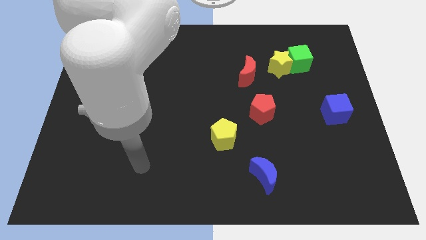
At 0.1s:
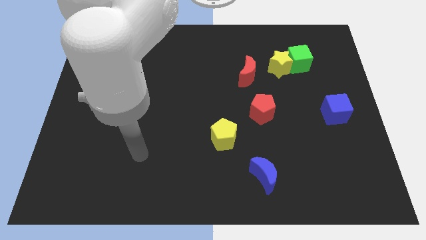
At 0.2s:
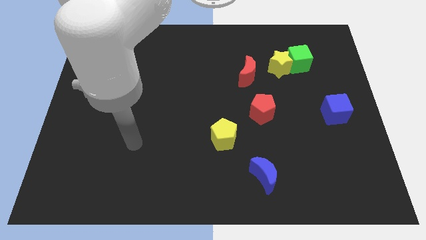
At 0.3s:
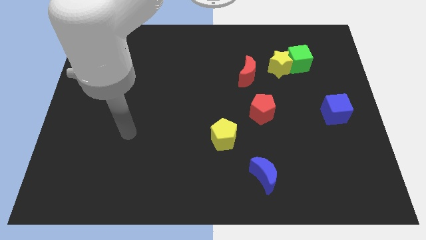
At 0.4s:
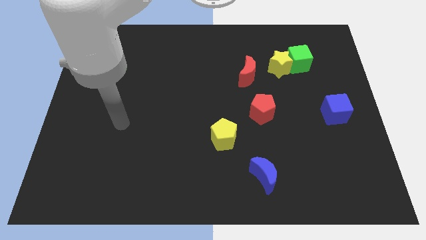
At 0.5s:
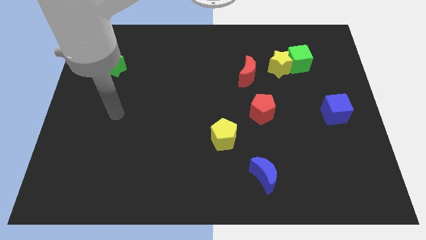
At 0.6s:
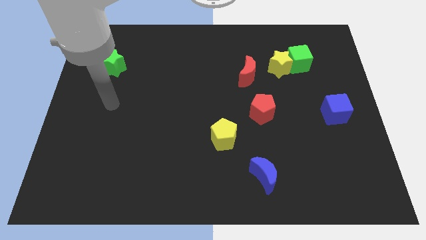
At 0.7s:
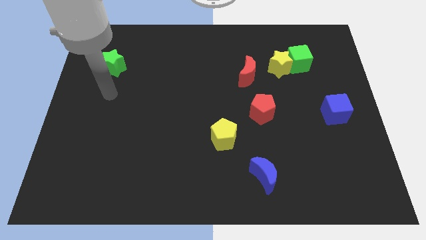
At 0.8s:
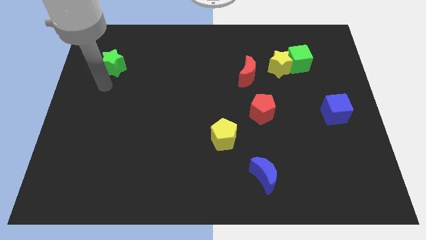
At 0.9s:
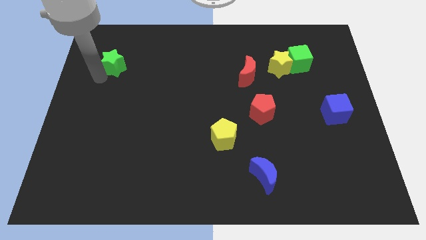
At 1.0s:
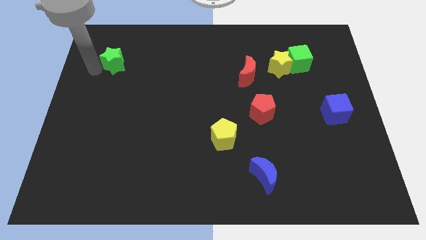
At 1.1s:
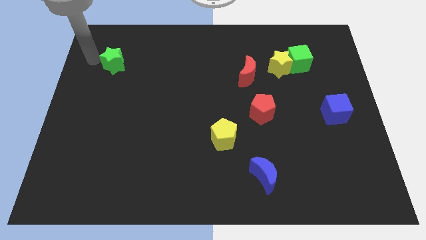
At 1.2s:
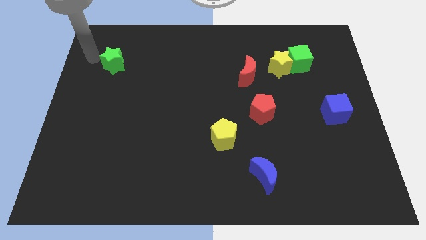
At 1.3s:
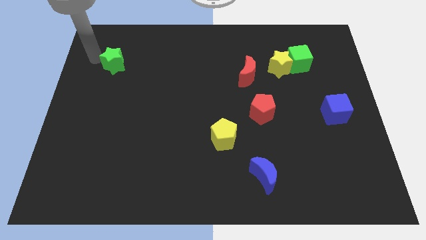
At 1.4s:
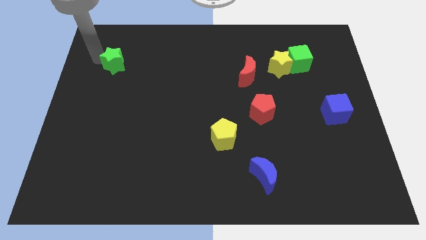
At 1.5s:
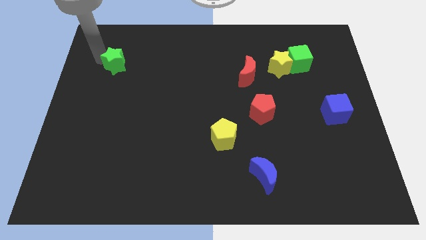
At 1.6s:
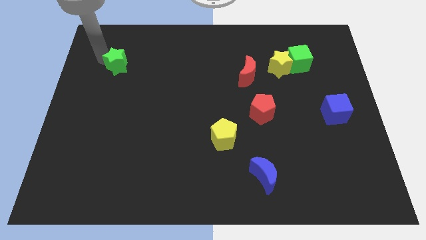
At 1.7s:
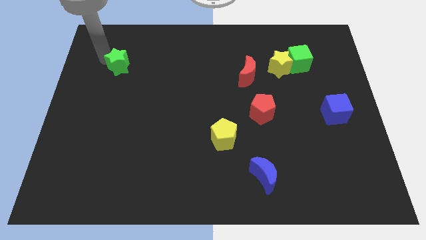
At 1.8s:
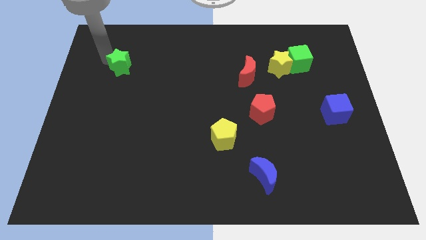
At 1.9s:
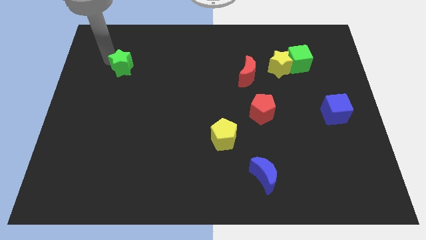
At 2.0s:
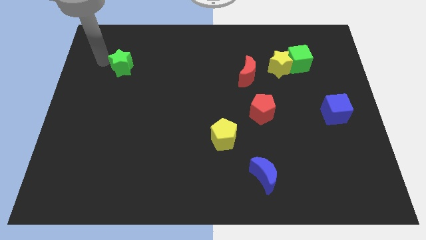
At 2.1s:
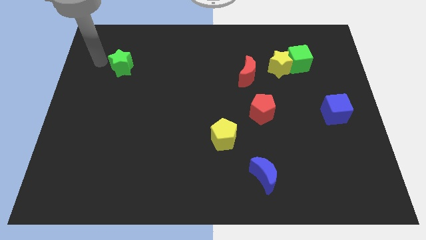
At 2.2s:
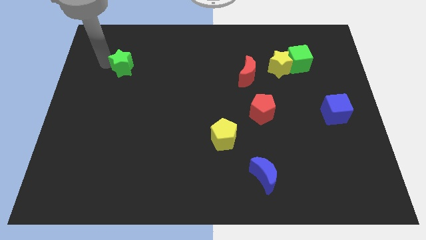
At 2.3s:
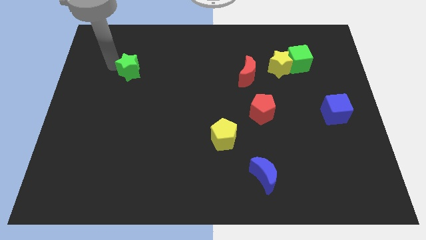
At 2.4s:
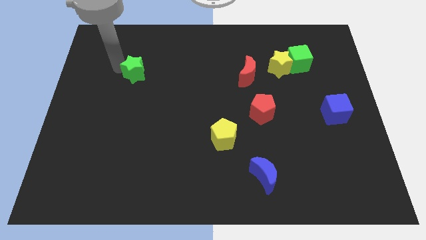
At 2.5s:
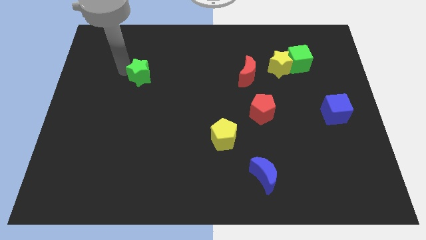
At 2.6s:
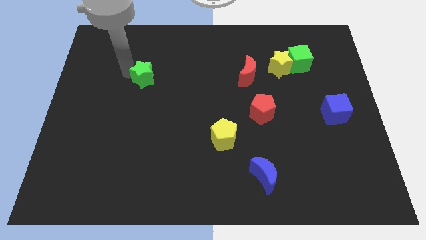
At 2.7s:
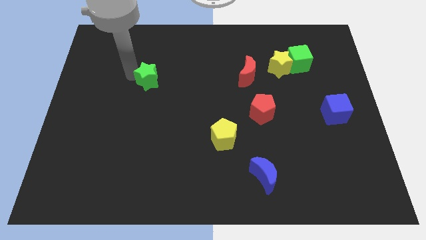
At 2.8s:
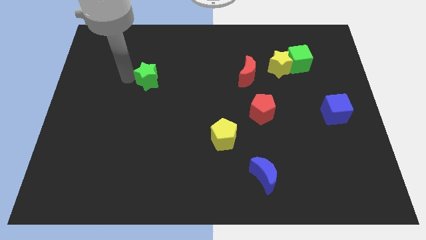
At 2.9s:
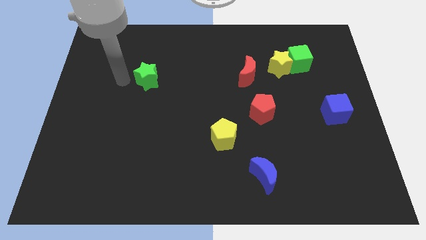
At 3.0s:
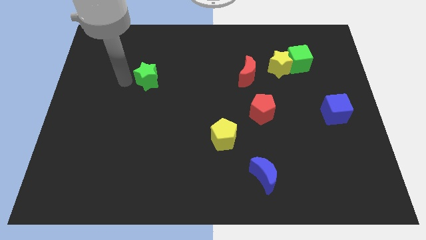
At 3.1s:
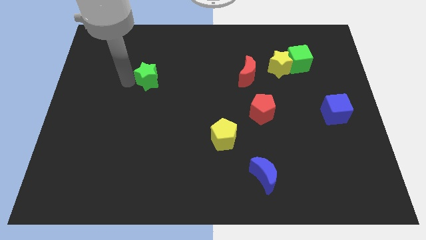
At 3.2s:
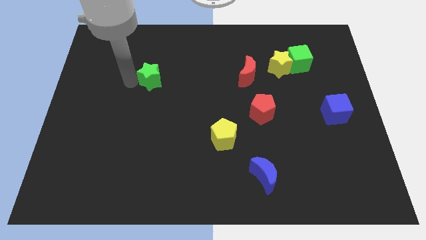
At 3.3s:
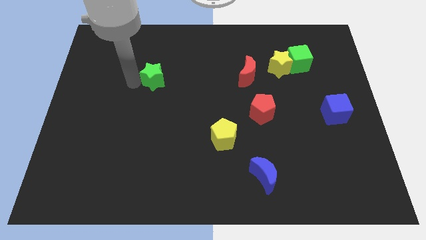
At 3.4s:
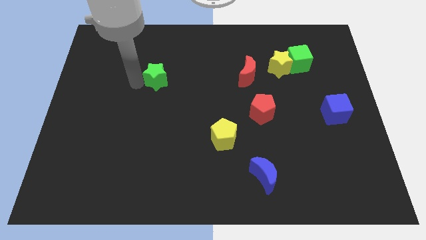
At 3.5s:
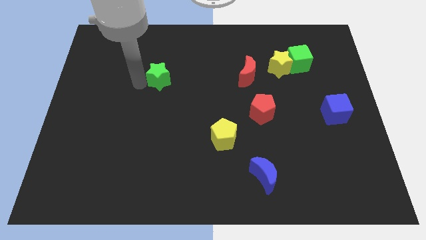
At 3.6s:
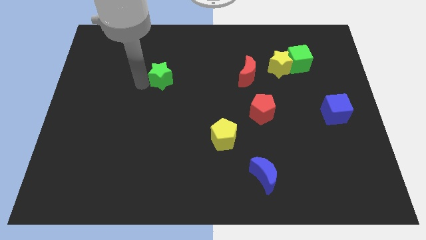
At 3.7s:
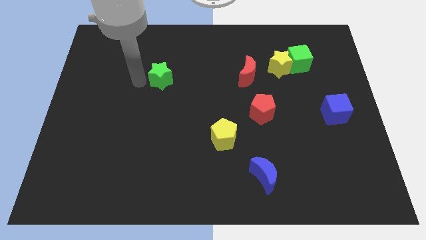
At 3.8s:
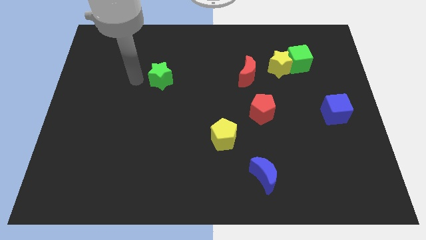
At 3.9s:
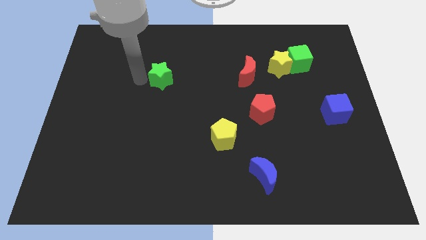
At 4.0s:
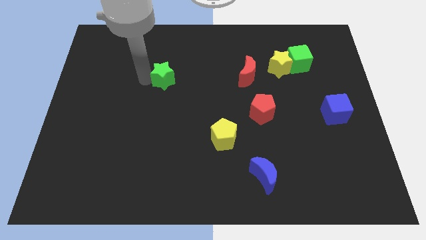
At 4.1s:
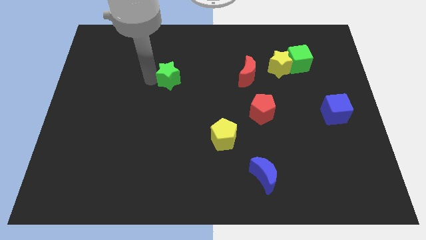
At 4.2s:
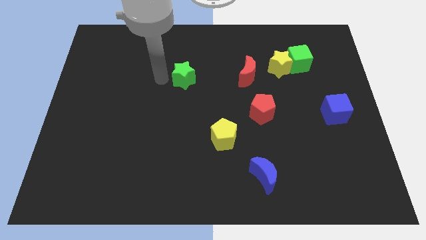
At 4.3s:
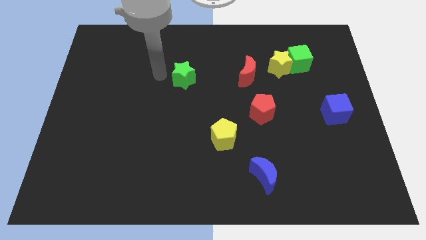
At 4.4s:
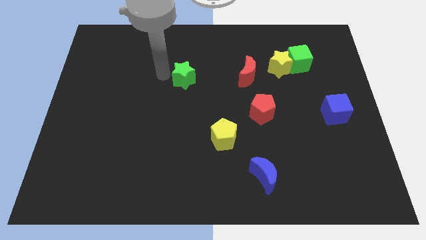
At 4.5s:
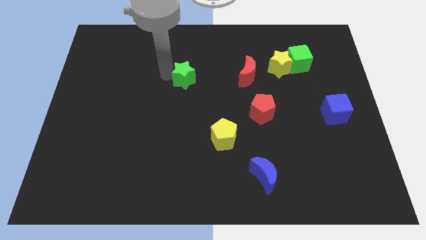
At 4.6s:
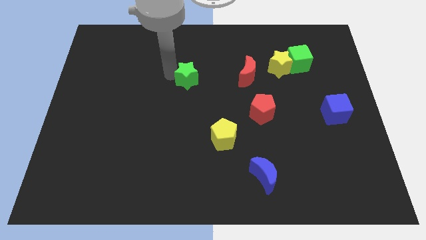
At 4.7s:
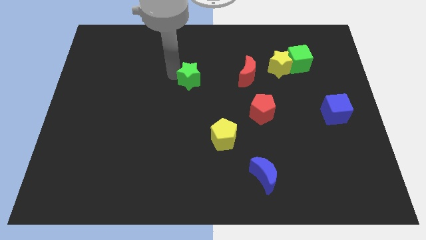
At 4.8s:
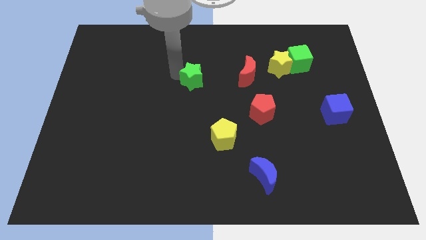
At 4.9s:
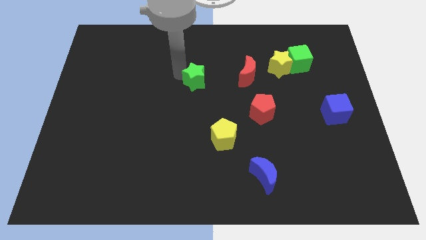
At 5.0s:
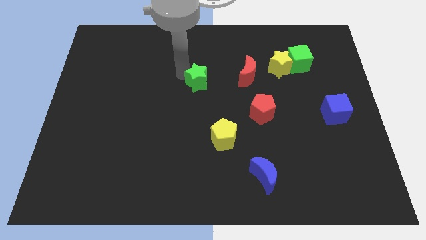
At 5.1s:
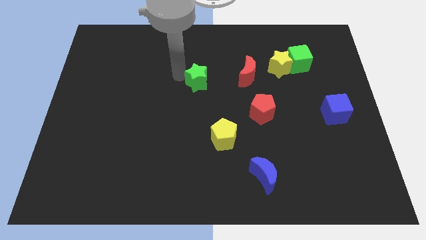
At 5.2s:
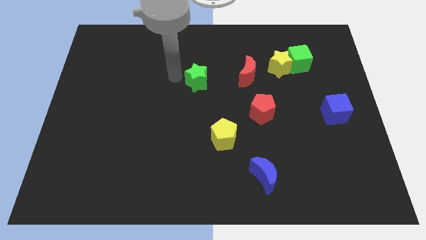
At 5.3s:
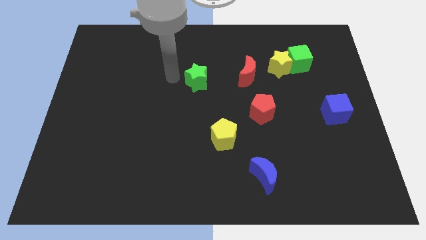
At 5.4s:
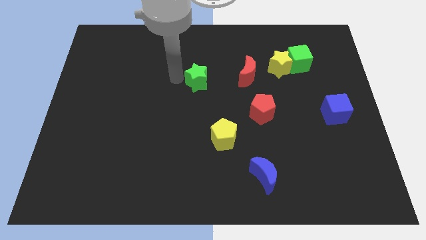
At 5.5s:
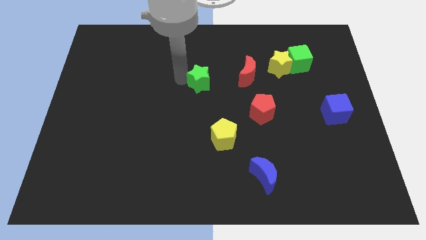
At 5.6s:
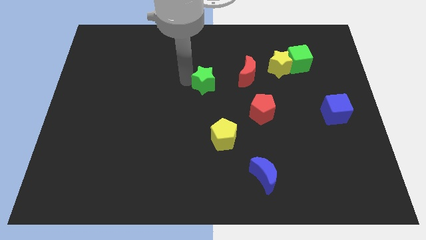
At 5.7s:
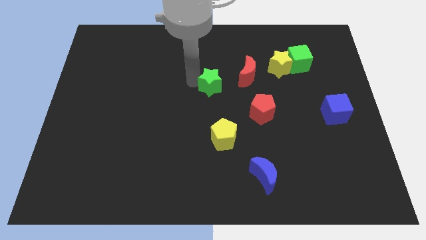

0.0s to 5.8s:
slide the green star to the bottom left of the red moon

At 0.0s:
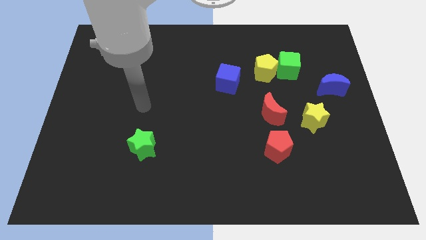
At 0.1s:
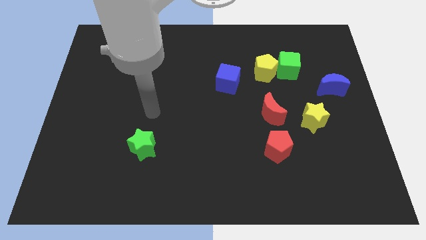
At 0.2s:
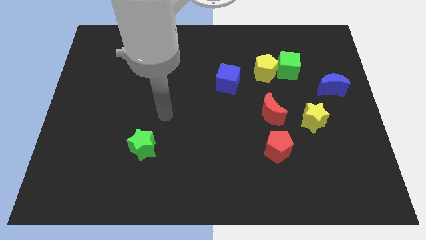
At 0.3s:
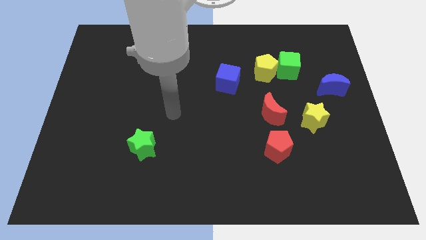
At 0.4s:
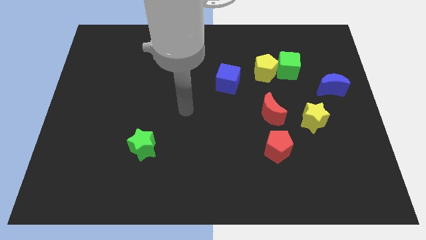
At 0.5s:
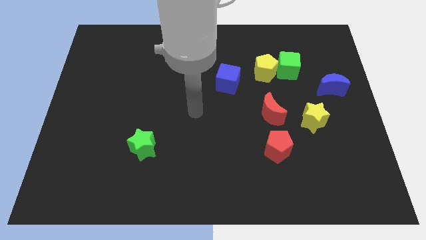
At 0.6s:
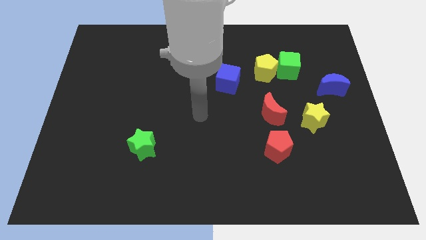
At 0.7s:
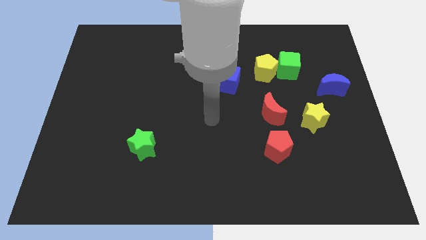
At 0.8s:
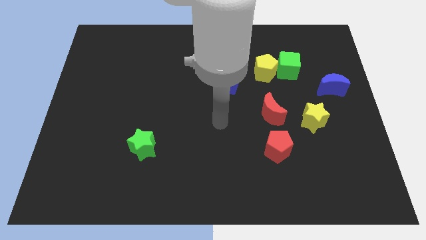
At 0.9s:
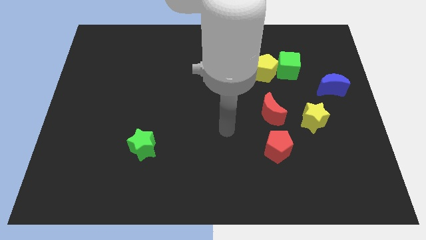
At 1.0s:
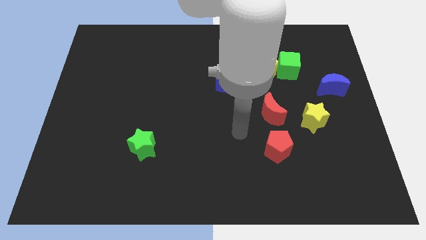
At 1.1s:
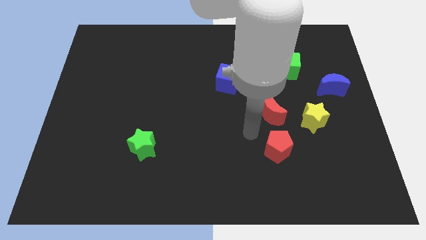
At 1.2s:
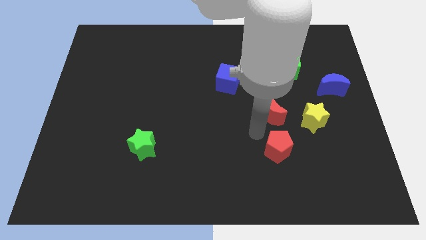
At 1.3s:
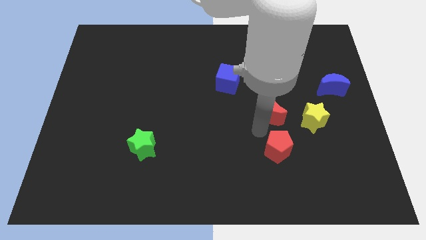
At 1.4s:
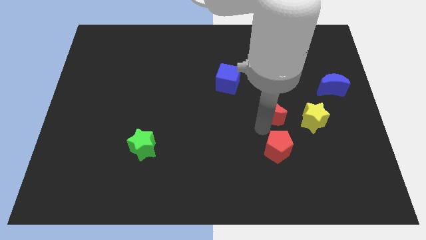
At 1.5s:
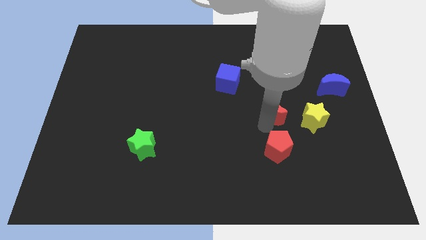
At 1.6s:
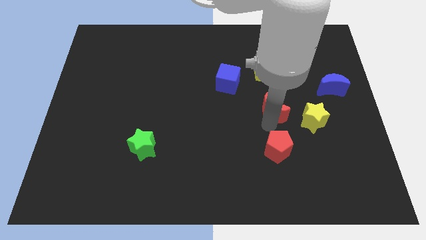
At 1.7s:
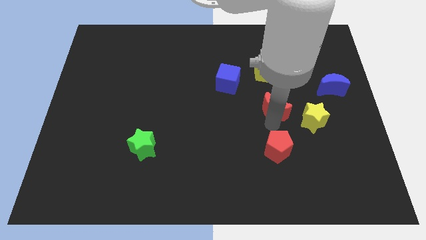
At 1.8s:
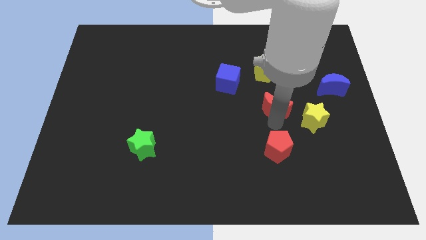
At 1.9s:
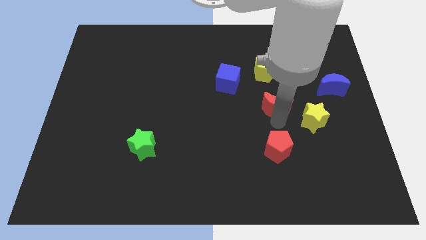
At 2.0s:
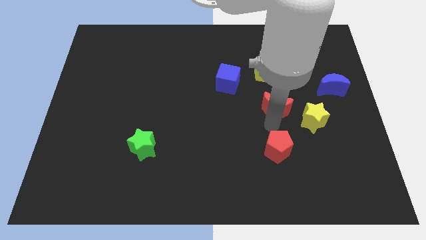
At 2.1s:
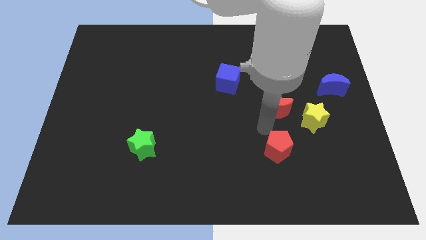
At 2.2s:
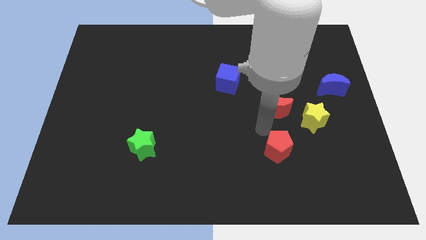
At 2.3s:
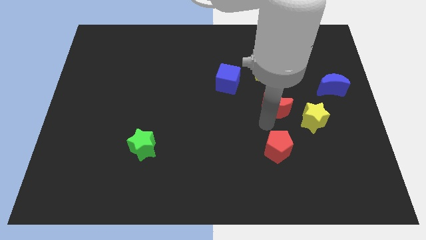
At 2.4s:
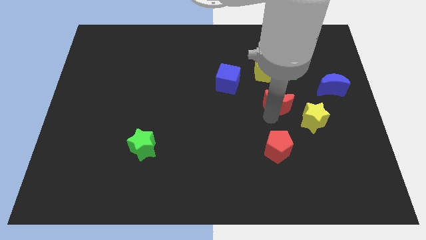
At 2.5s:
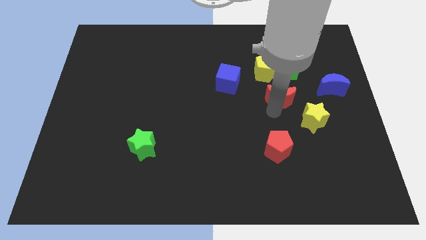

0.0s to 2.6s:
slide the red moon to the left side of the blue moon
